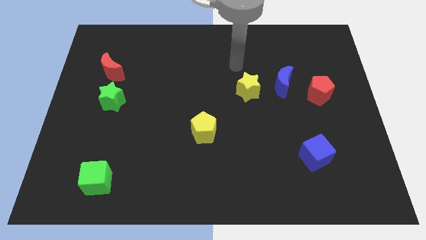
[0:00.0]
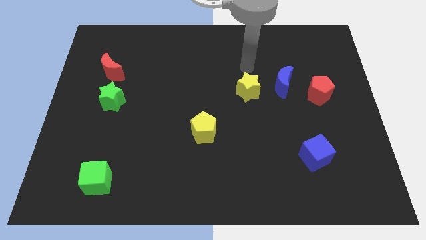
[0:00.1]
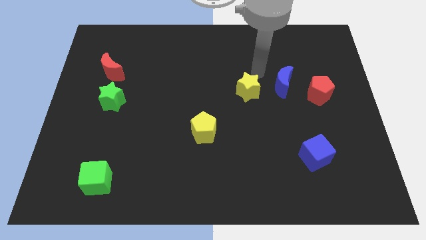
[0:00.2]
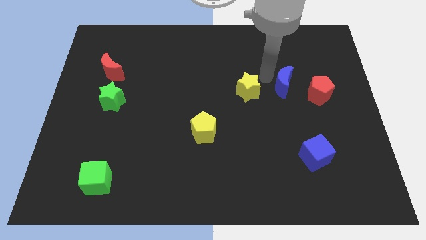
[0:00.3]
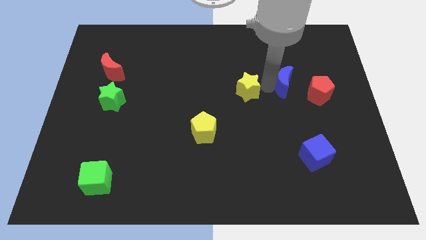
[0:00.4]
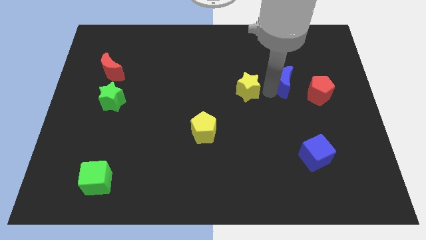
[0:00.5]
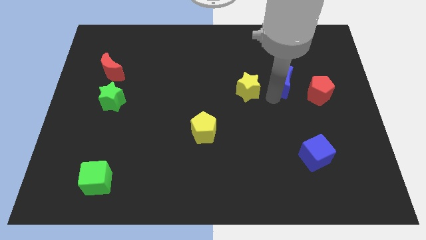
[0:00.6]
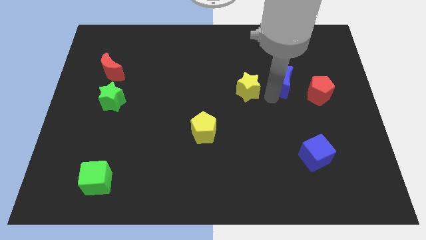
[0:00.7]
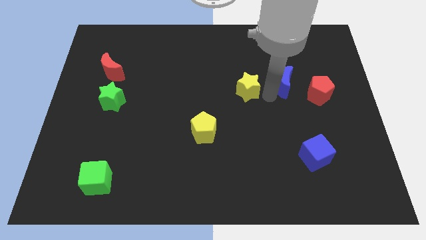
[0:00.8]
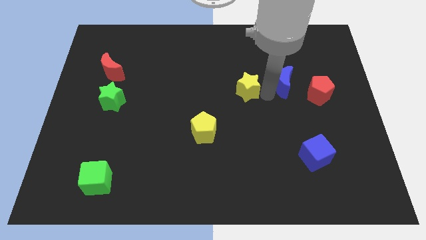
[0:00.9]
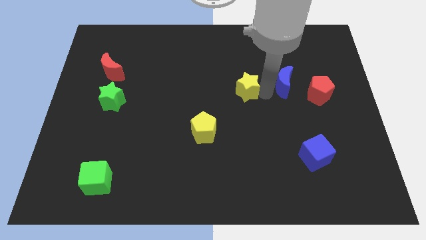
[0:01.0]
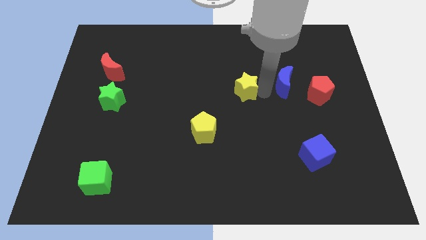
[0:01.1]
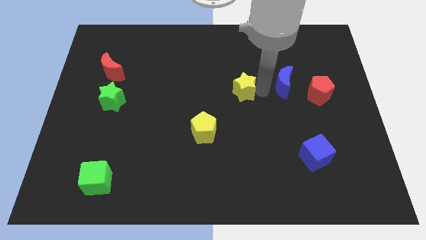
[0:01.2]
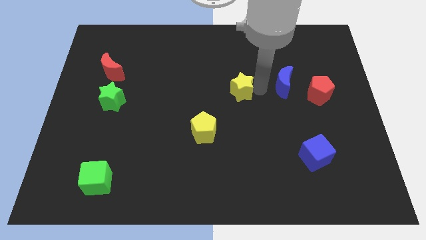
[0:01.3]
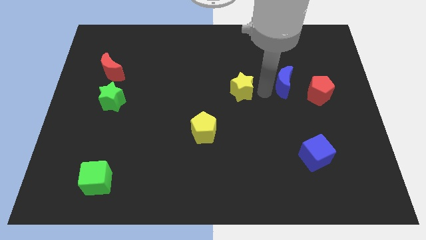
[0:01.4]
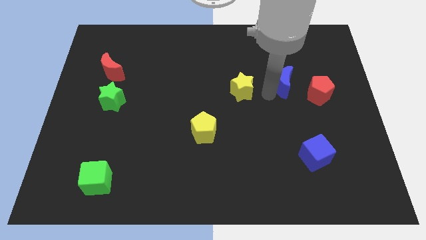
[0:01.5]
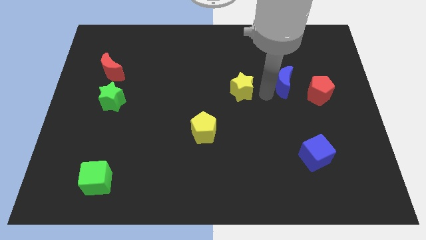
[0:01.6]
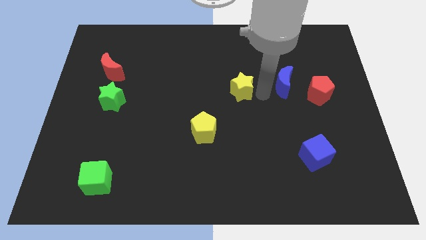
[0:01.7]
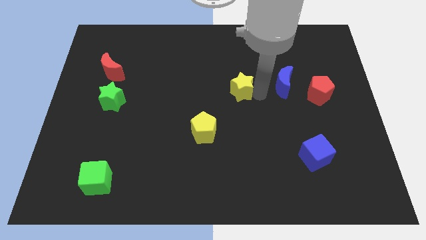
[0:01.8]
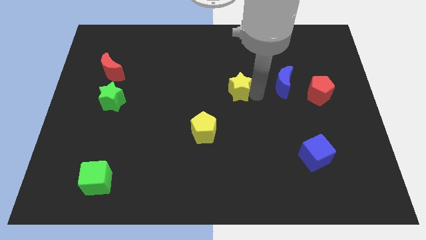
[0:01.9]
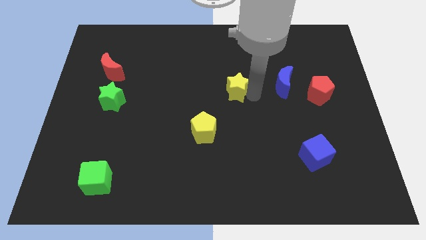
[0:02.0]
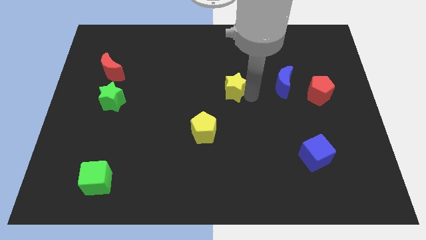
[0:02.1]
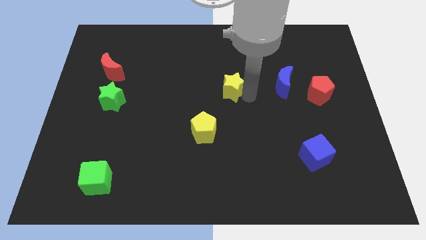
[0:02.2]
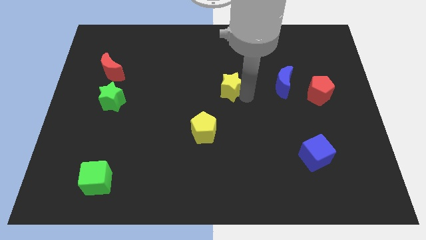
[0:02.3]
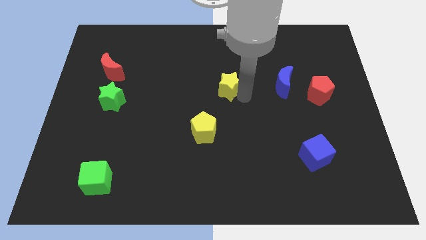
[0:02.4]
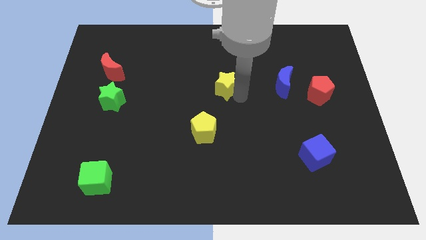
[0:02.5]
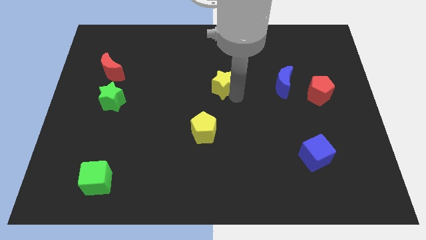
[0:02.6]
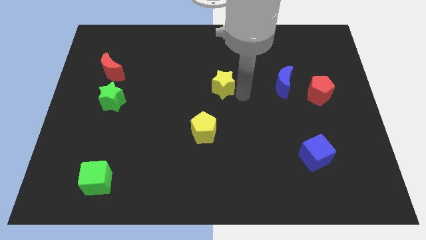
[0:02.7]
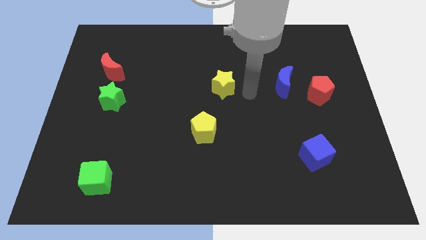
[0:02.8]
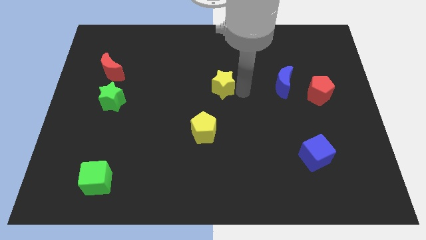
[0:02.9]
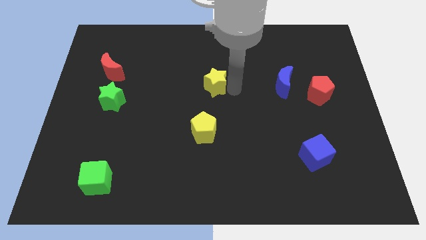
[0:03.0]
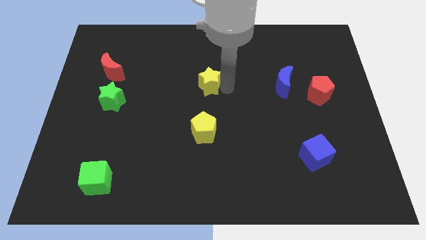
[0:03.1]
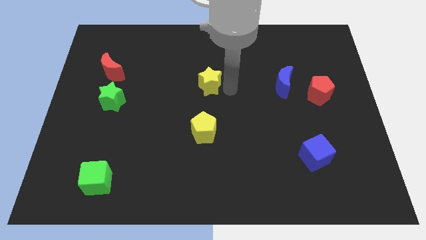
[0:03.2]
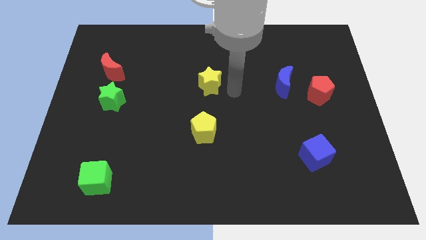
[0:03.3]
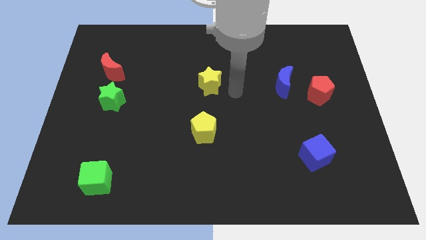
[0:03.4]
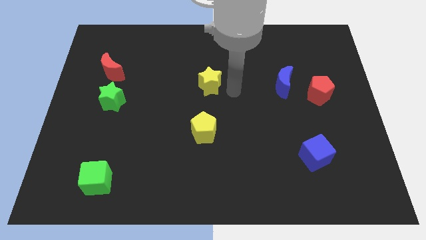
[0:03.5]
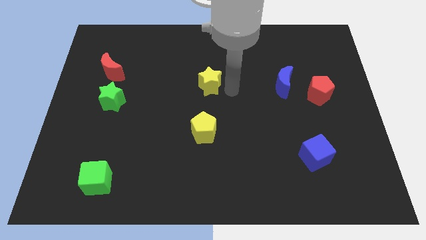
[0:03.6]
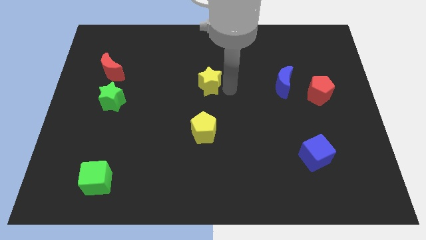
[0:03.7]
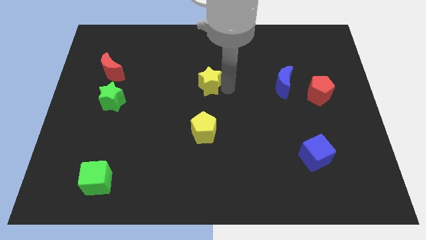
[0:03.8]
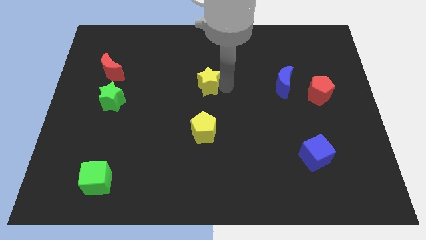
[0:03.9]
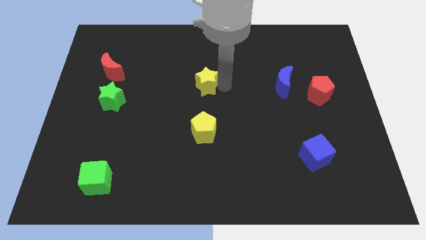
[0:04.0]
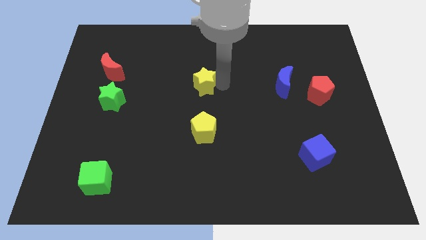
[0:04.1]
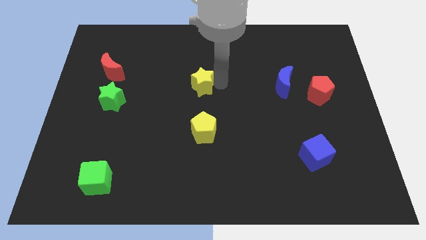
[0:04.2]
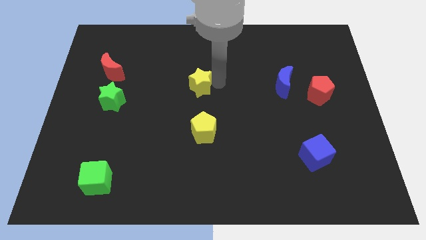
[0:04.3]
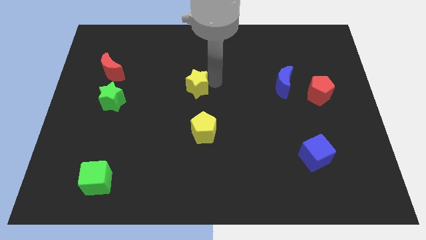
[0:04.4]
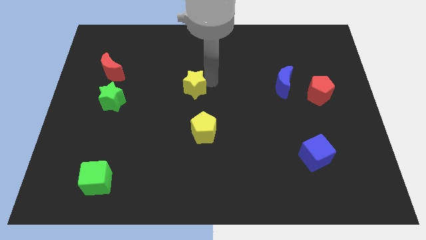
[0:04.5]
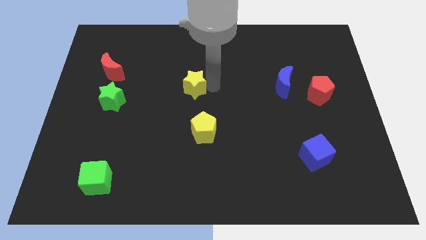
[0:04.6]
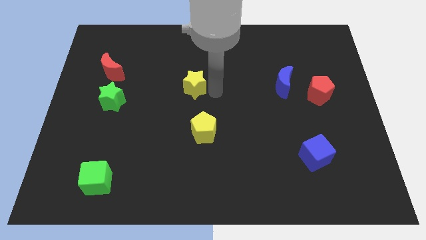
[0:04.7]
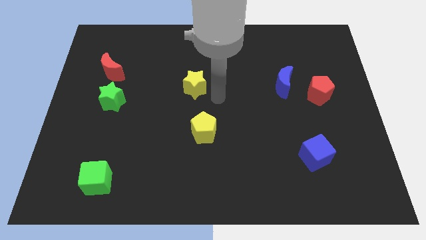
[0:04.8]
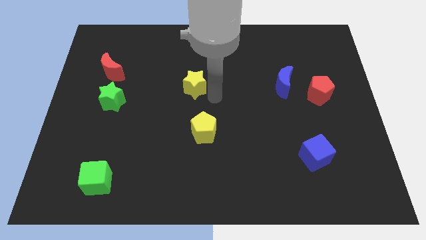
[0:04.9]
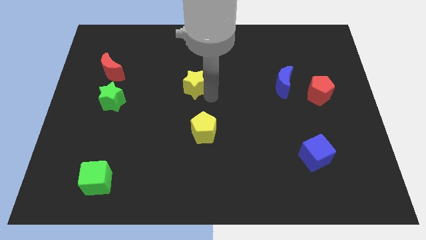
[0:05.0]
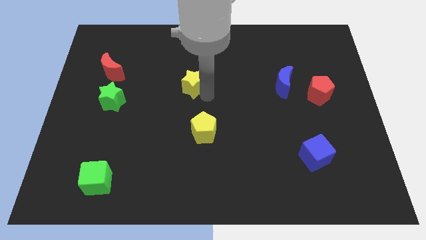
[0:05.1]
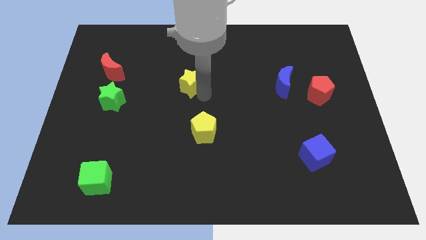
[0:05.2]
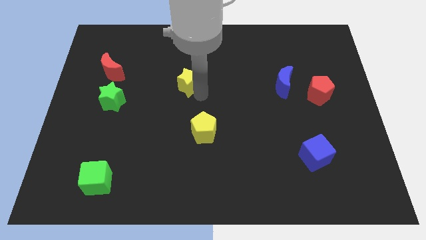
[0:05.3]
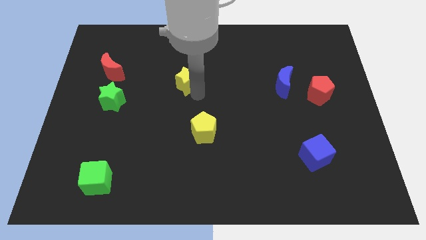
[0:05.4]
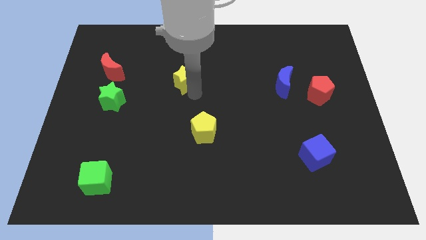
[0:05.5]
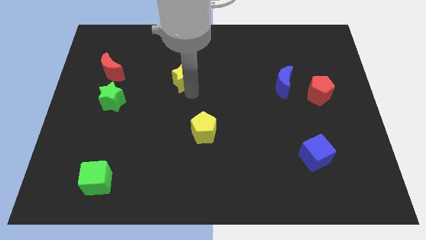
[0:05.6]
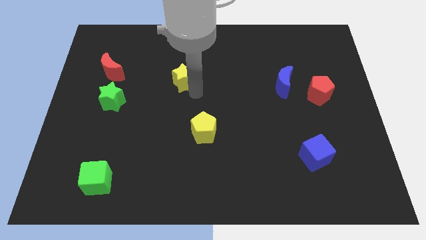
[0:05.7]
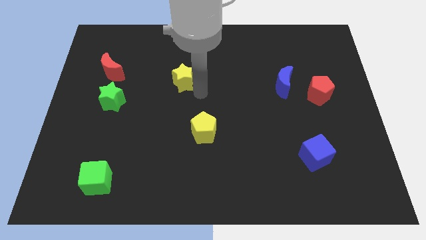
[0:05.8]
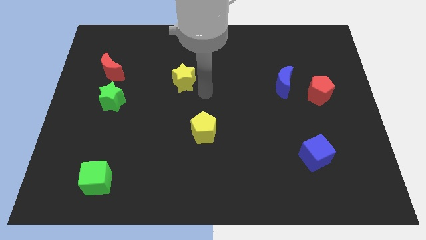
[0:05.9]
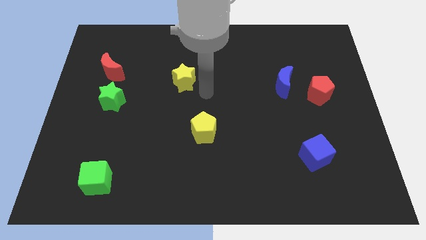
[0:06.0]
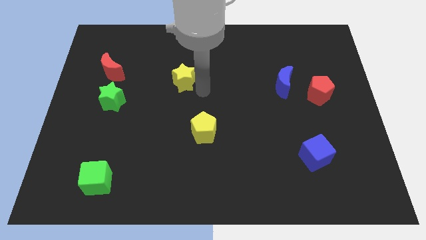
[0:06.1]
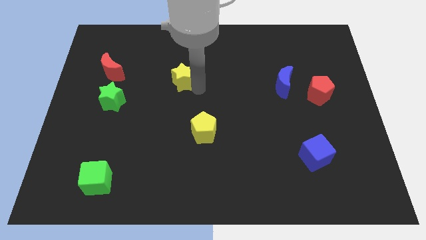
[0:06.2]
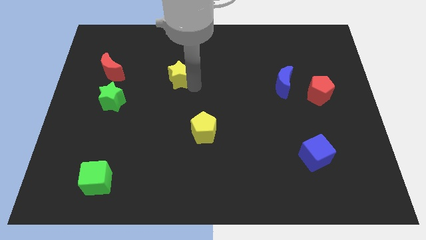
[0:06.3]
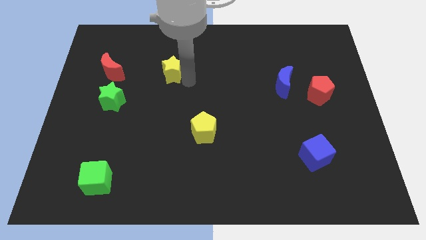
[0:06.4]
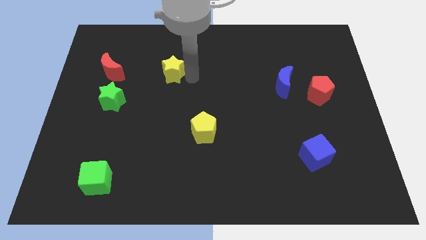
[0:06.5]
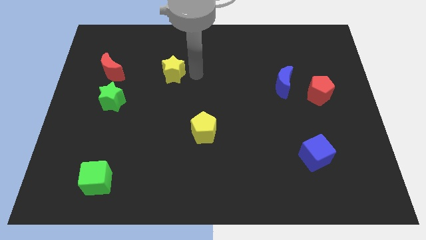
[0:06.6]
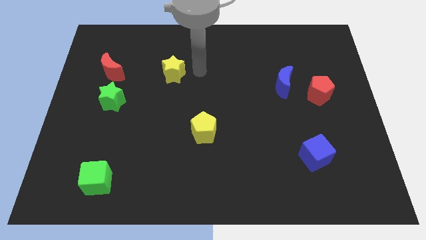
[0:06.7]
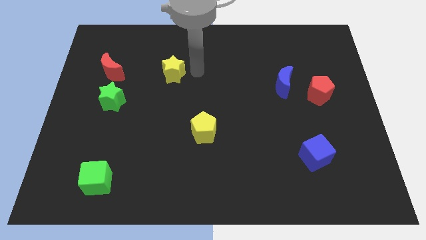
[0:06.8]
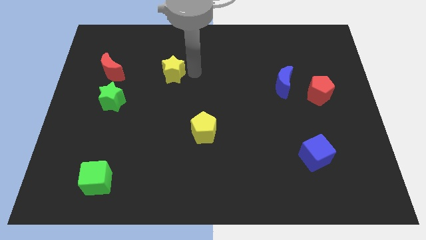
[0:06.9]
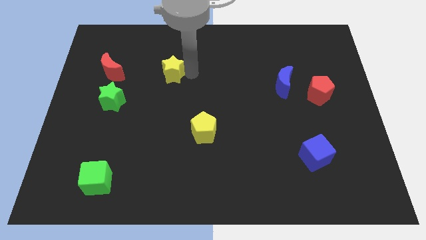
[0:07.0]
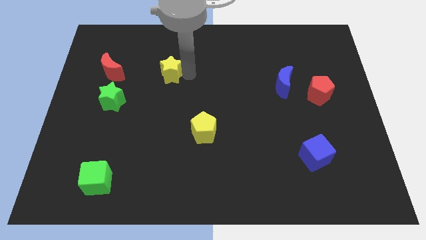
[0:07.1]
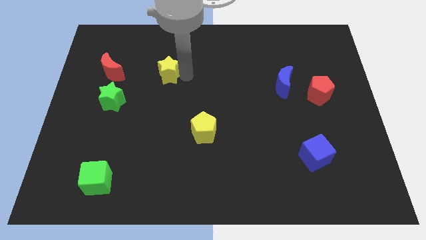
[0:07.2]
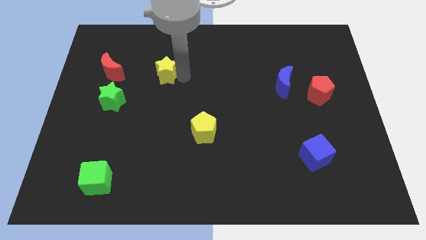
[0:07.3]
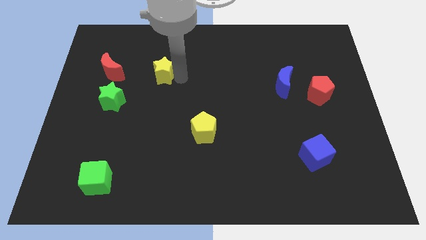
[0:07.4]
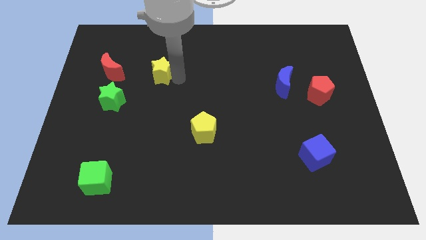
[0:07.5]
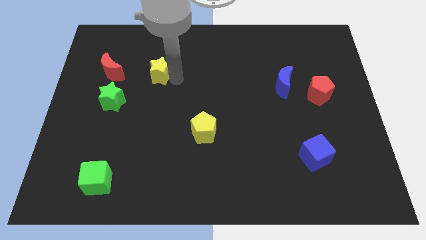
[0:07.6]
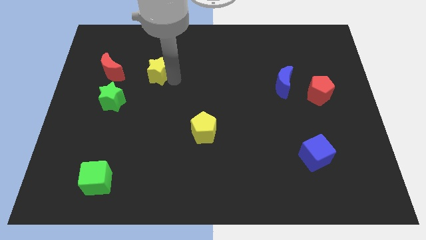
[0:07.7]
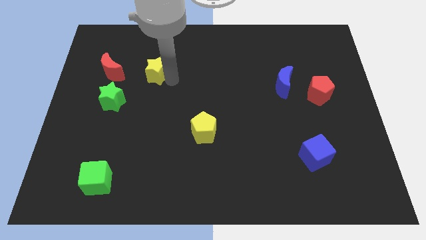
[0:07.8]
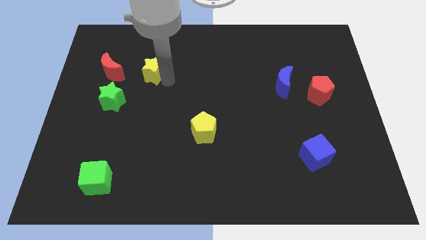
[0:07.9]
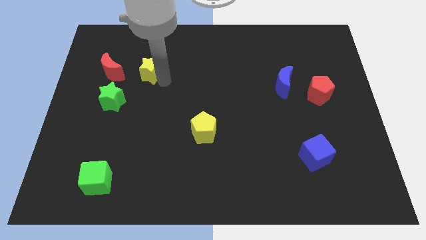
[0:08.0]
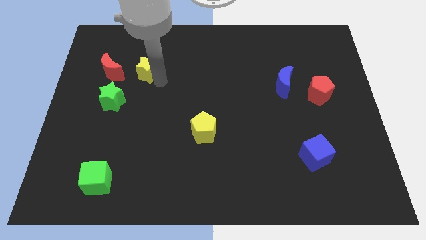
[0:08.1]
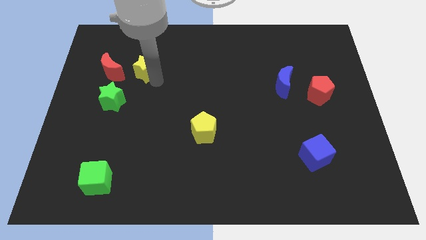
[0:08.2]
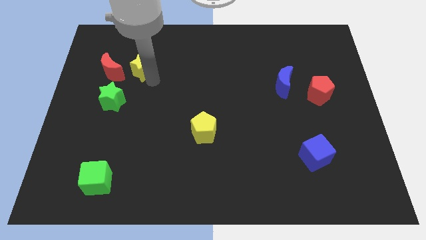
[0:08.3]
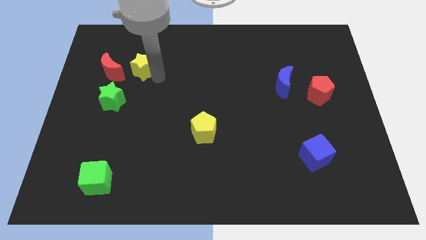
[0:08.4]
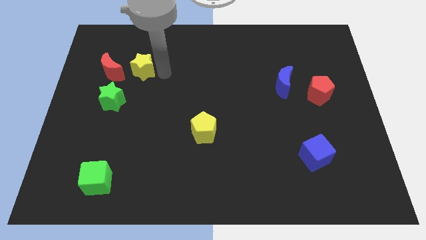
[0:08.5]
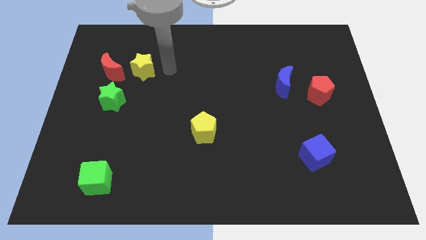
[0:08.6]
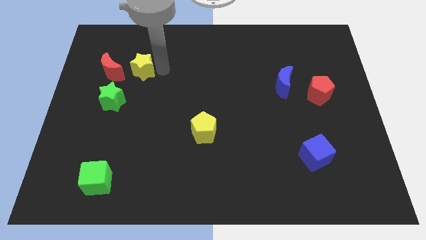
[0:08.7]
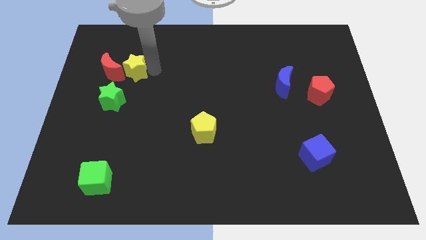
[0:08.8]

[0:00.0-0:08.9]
push the yellow star towards the red moon
